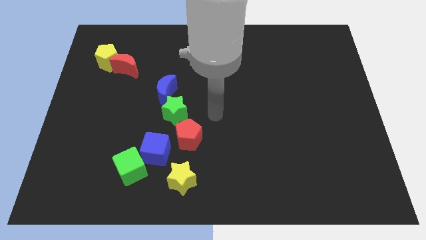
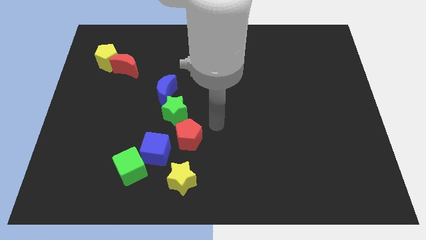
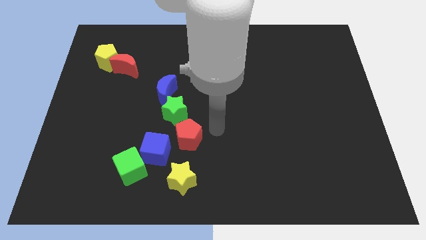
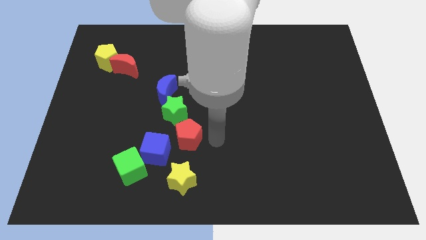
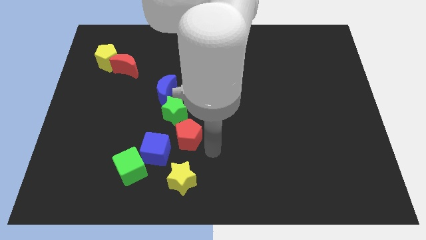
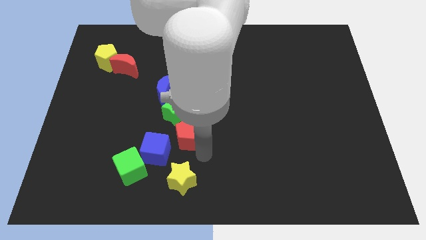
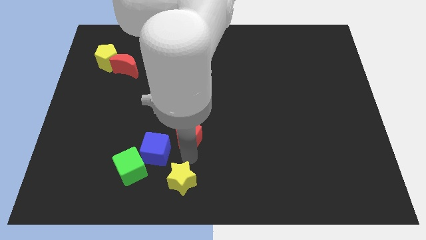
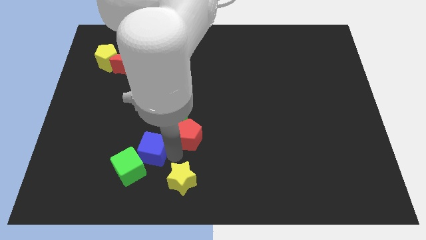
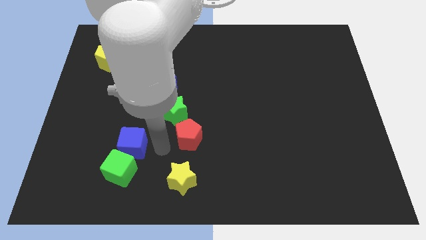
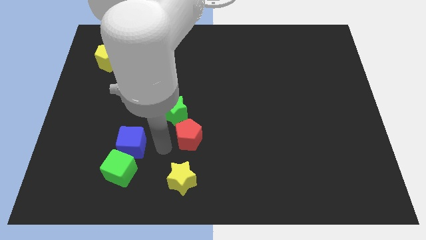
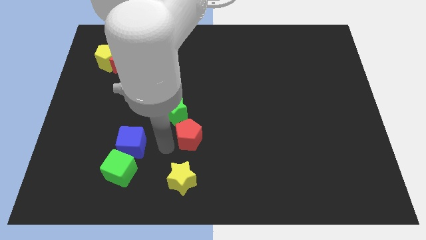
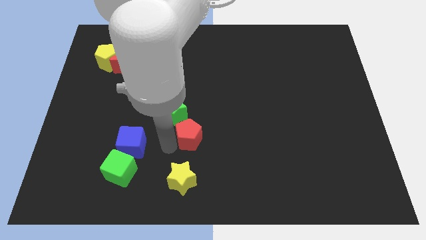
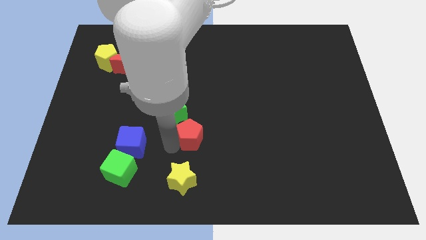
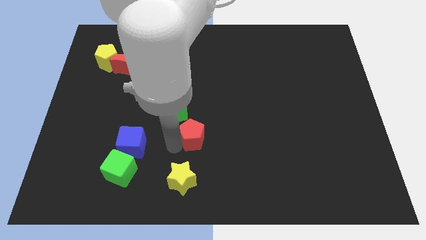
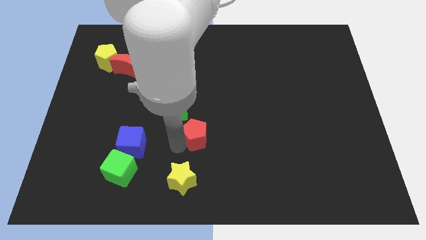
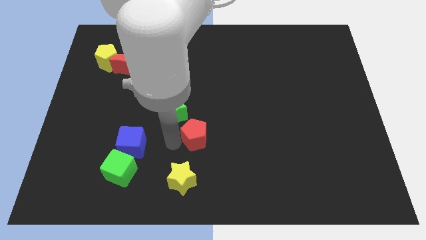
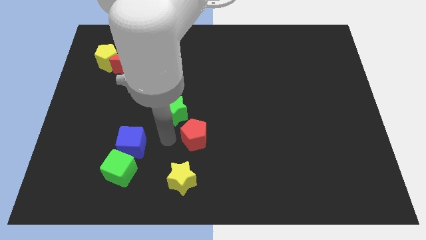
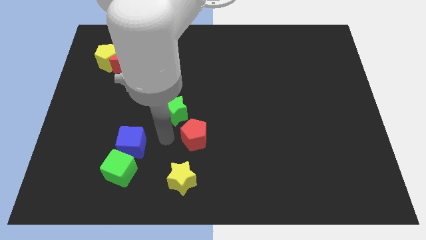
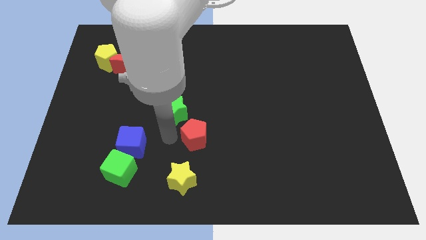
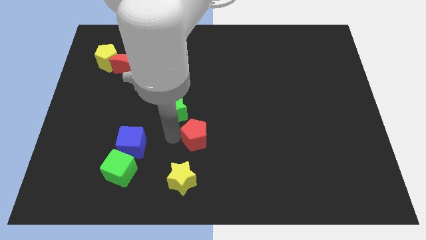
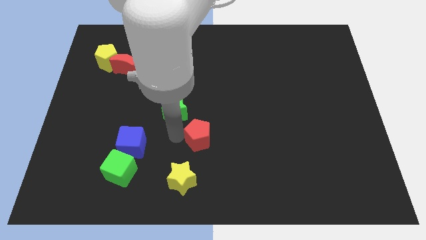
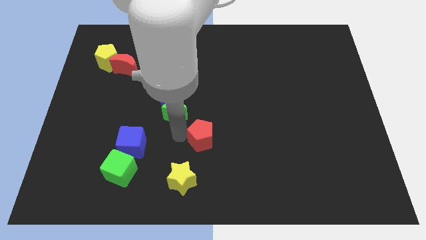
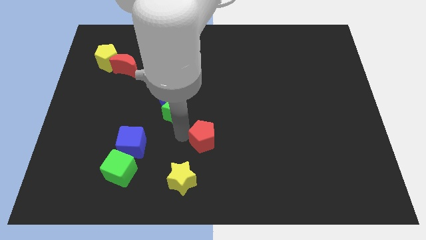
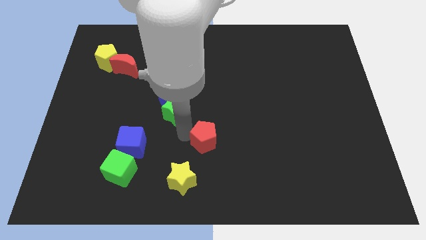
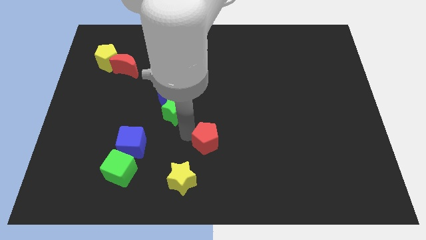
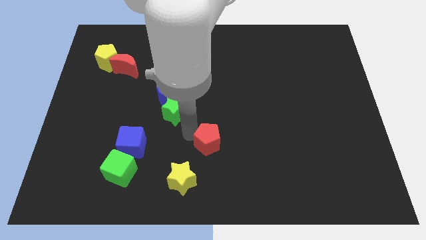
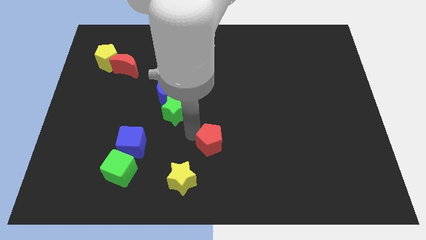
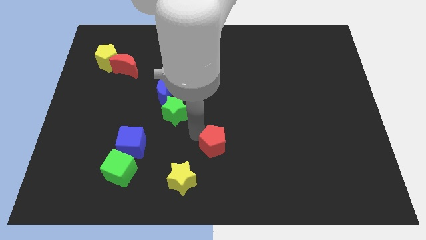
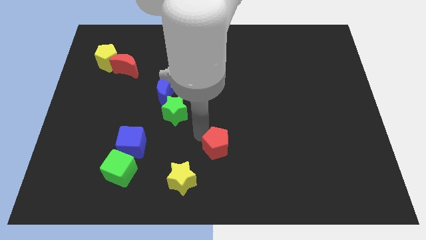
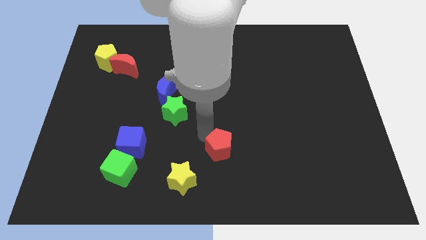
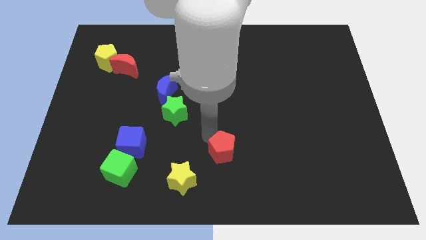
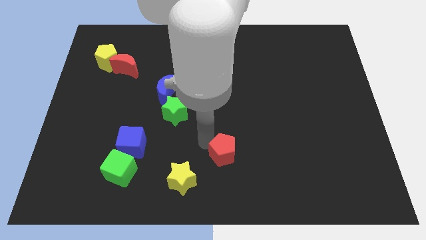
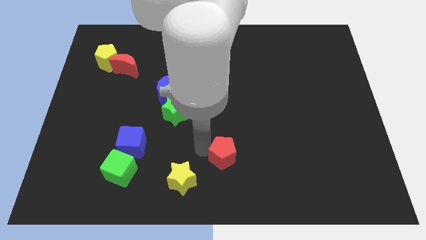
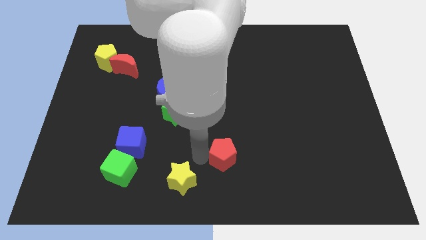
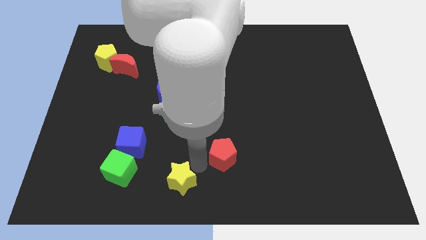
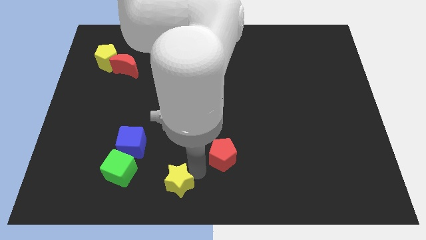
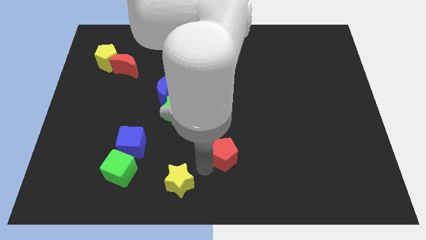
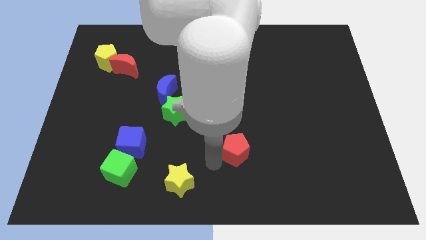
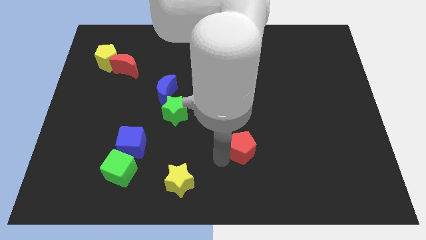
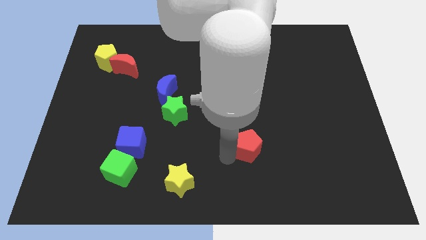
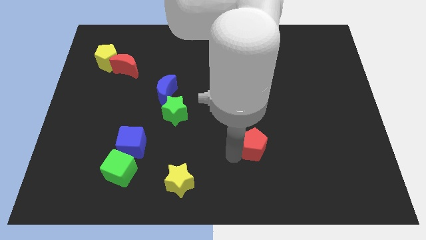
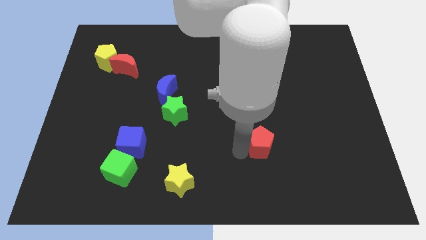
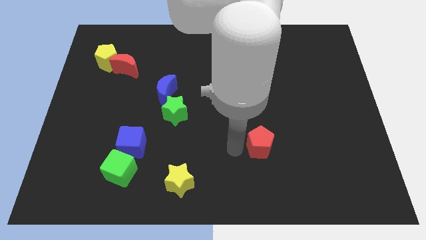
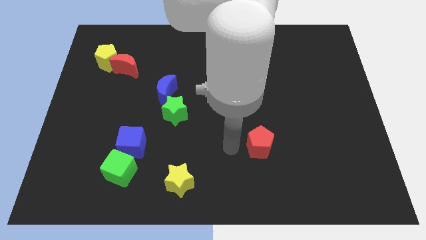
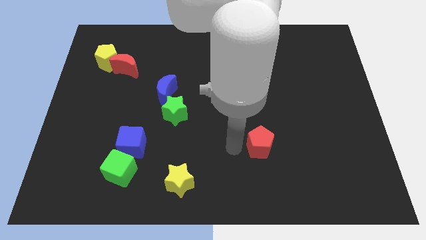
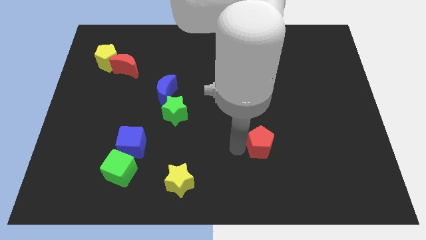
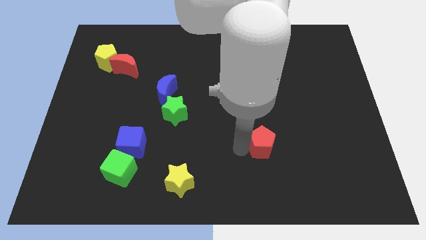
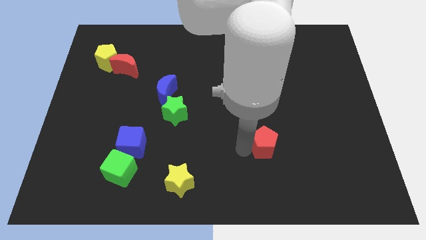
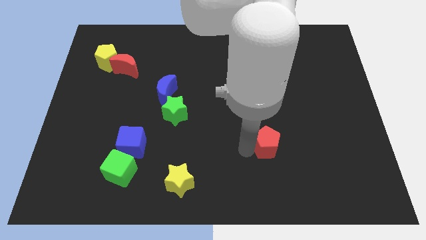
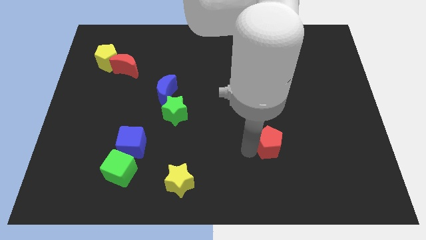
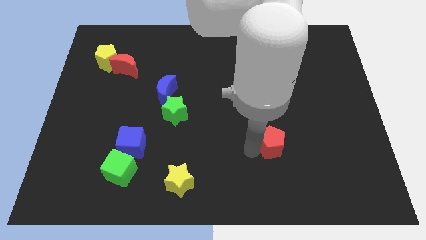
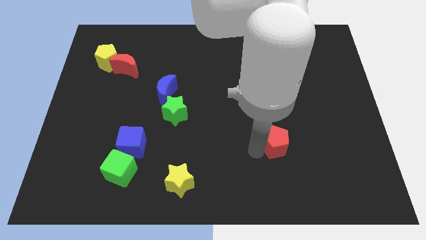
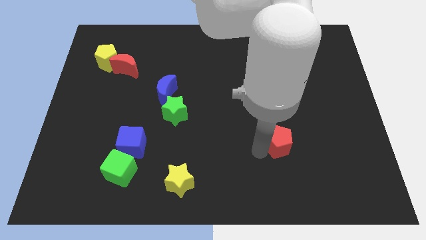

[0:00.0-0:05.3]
slide the red pentagon to the right

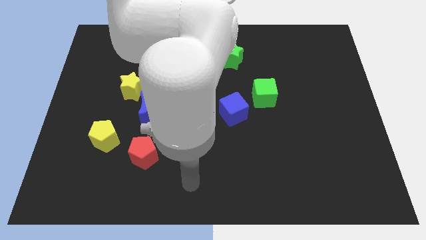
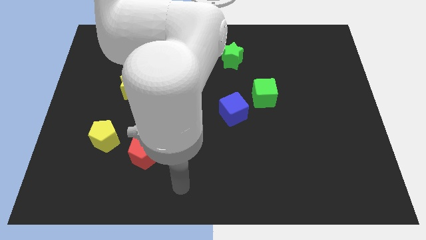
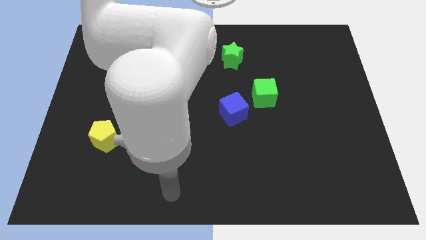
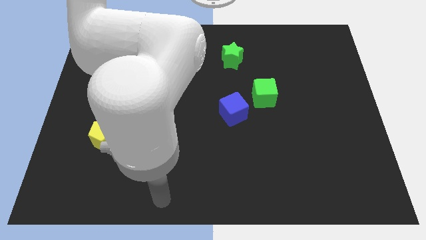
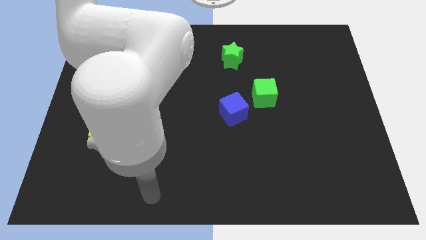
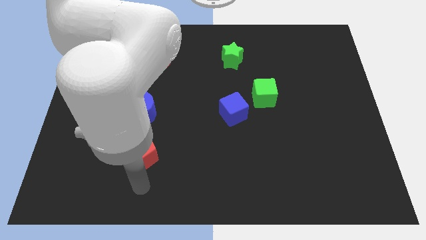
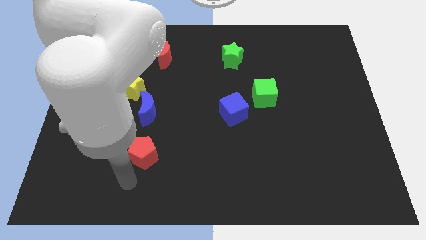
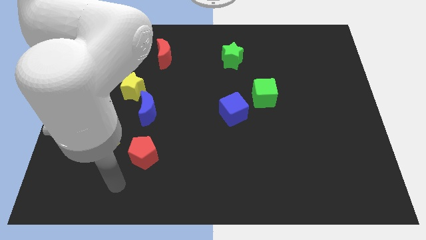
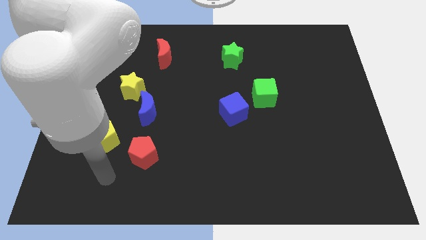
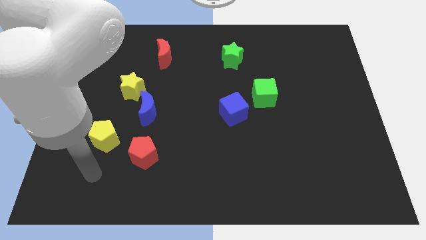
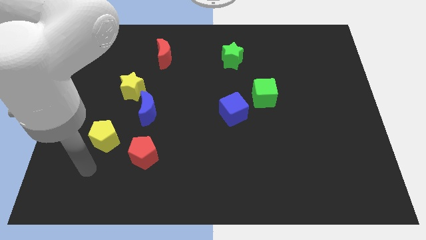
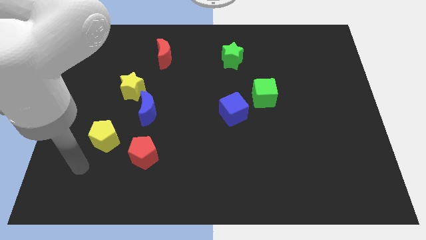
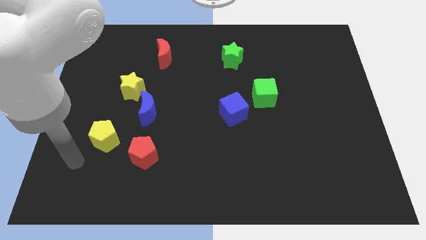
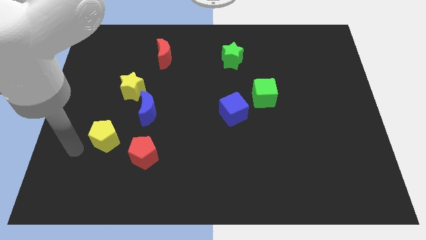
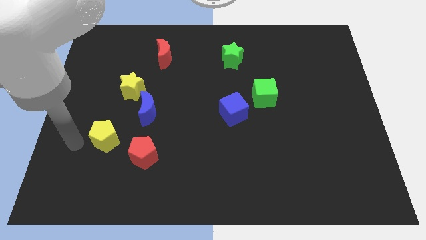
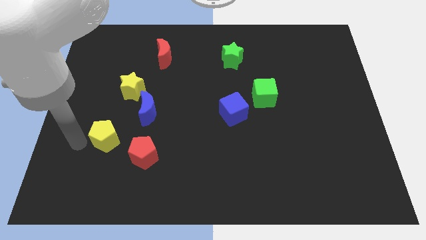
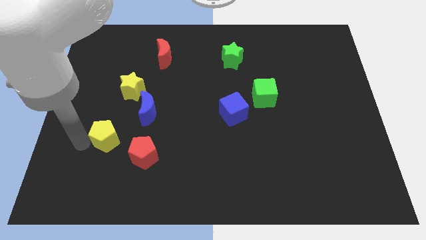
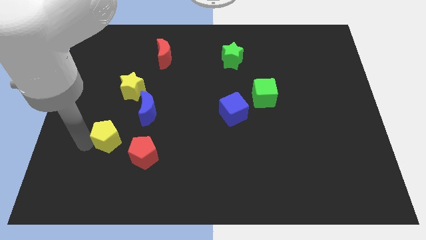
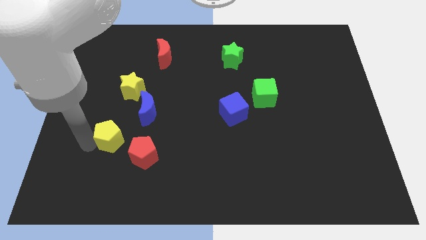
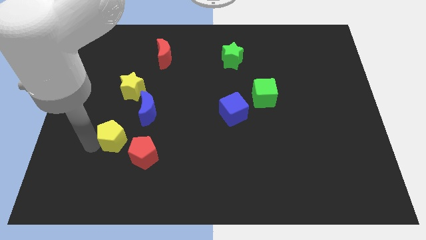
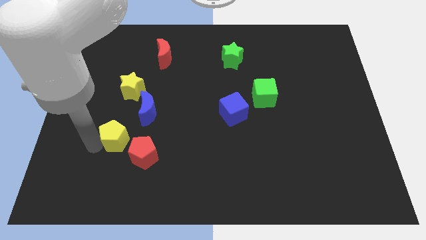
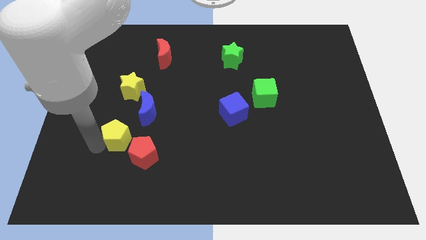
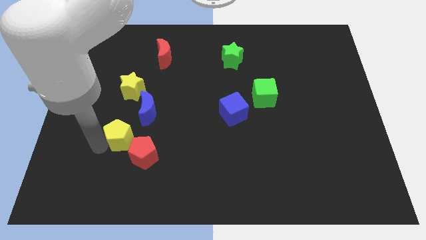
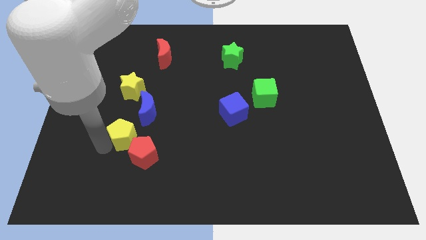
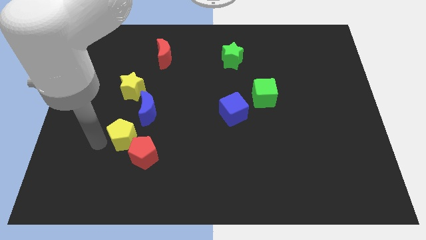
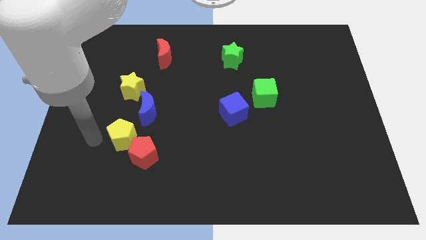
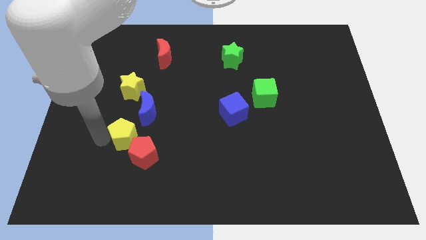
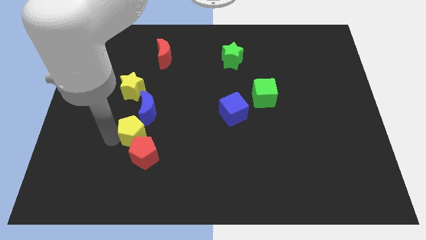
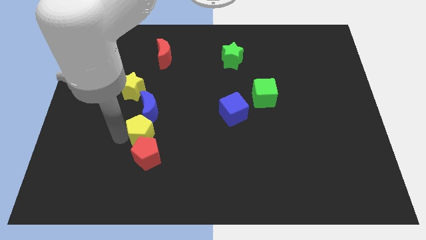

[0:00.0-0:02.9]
slide the yellow pentagon right somewhat
